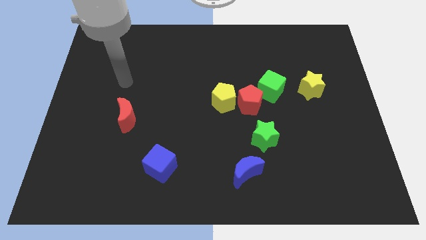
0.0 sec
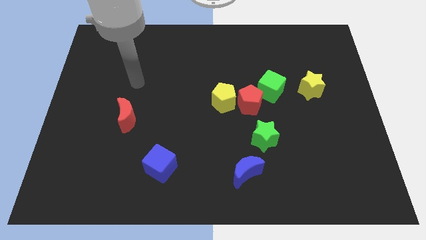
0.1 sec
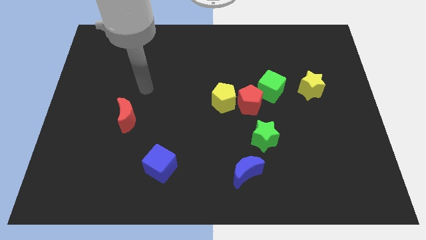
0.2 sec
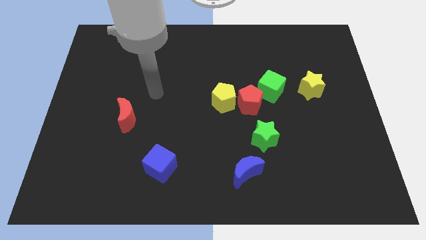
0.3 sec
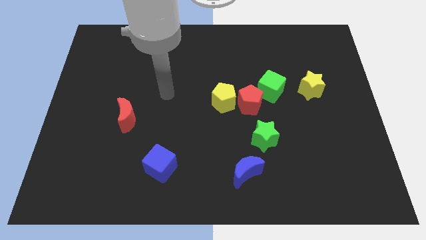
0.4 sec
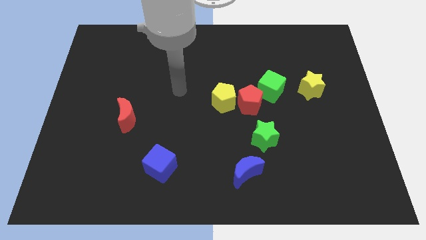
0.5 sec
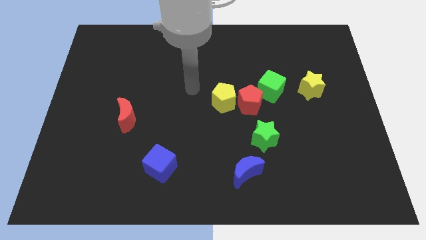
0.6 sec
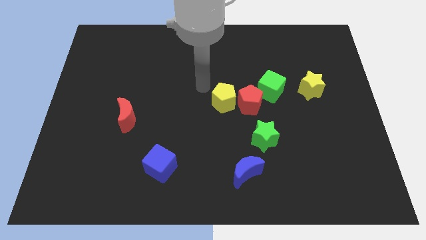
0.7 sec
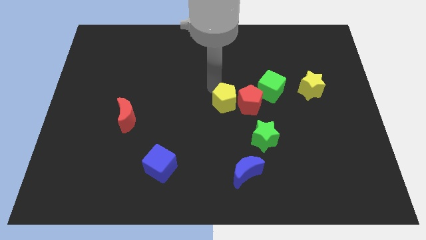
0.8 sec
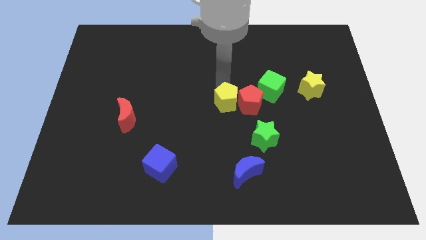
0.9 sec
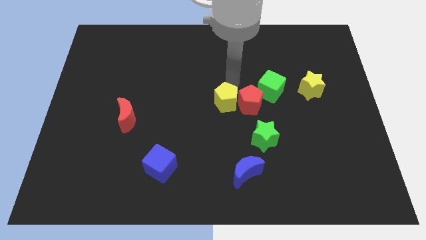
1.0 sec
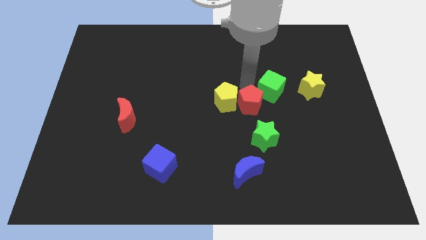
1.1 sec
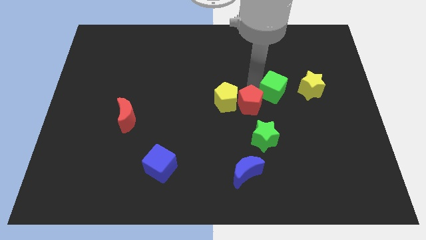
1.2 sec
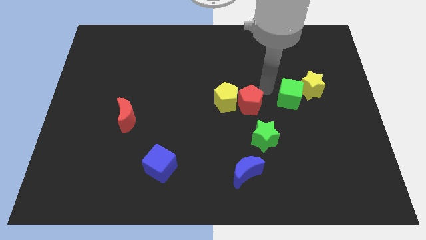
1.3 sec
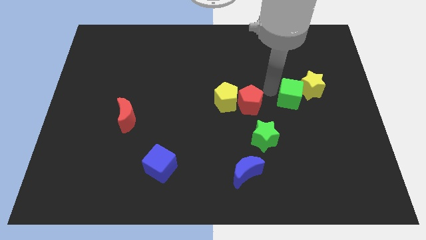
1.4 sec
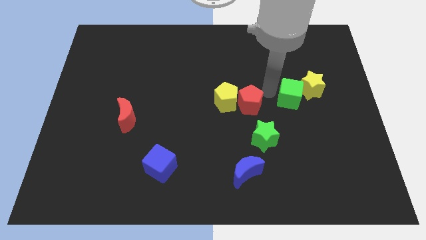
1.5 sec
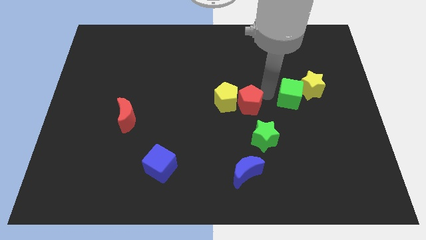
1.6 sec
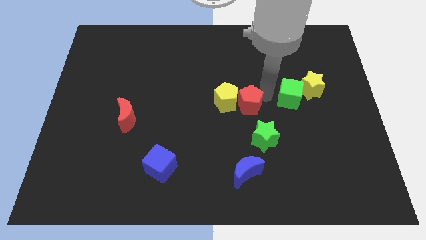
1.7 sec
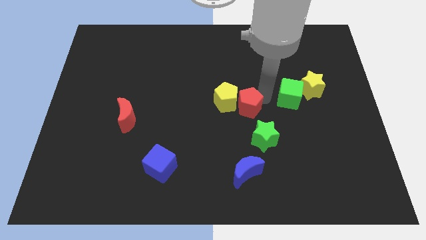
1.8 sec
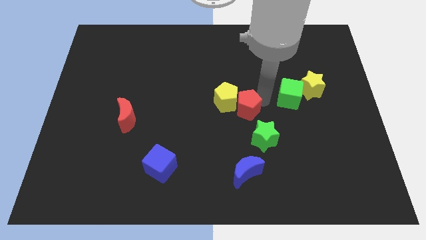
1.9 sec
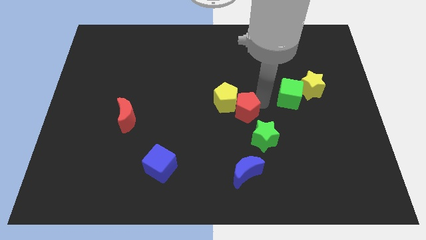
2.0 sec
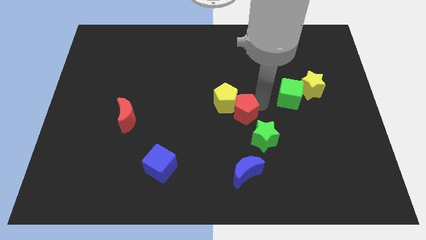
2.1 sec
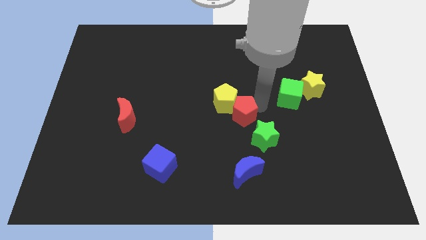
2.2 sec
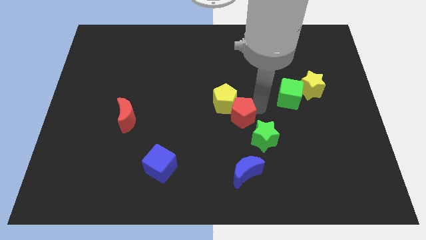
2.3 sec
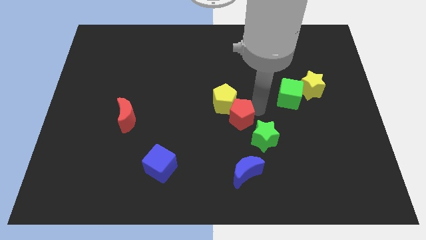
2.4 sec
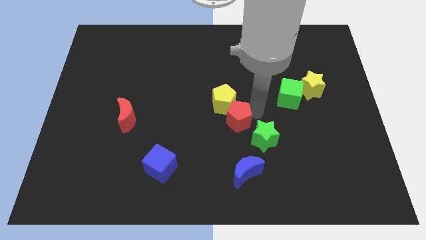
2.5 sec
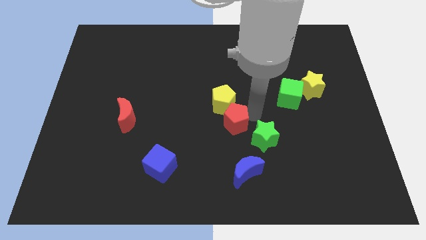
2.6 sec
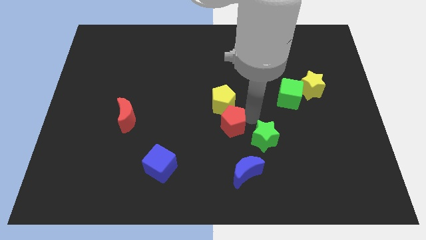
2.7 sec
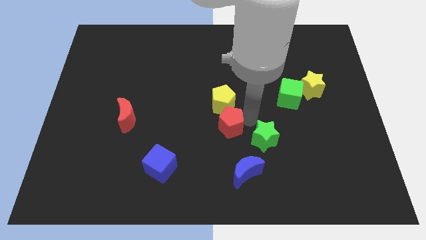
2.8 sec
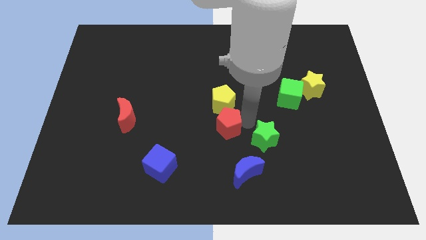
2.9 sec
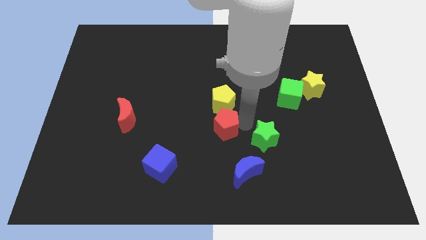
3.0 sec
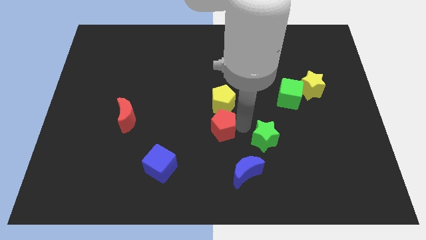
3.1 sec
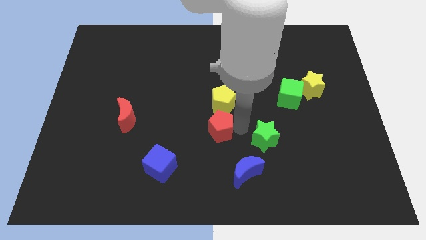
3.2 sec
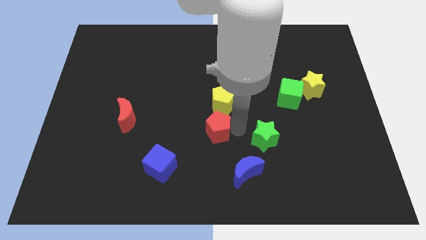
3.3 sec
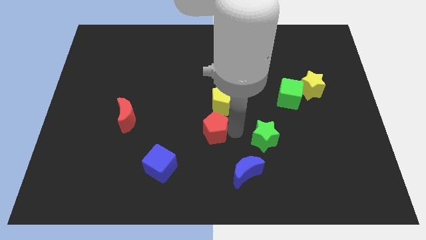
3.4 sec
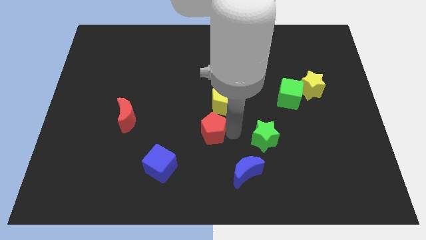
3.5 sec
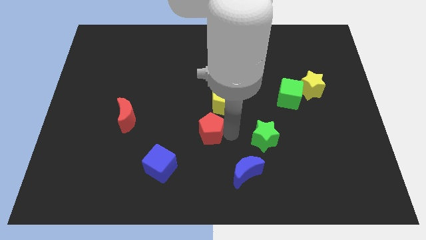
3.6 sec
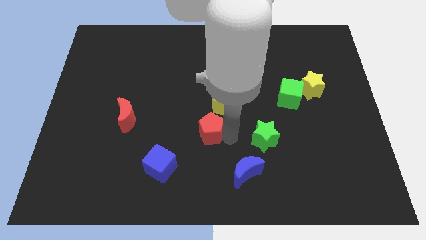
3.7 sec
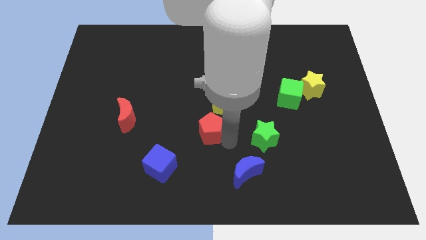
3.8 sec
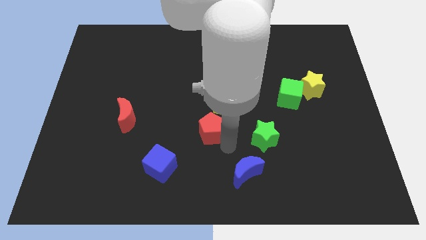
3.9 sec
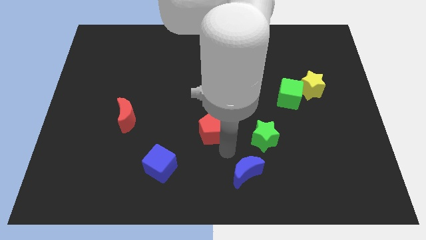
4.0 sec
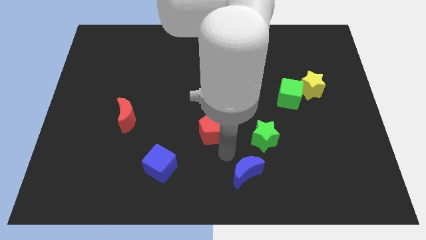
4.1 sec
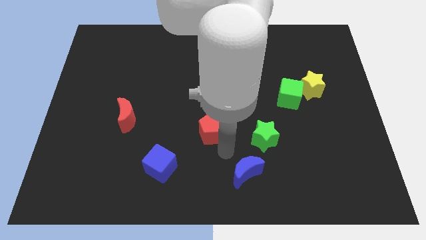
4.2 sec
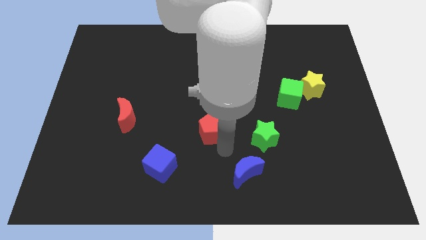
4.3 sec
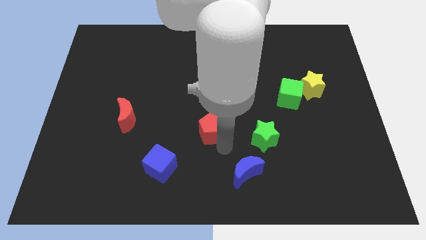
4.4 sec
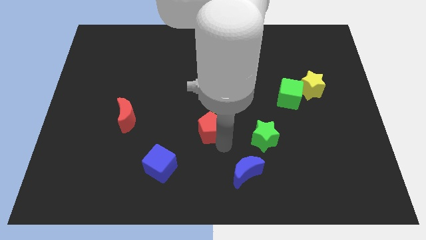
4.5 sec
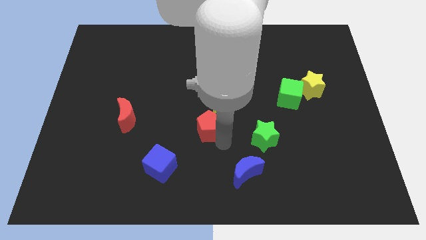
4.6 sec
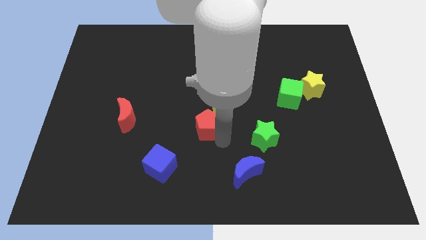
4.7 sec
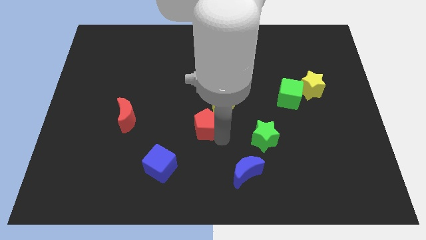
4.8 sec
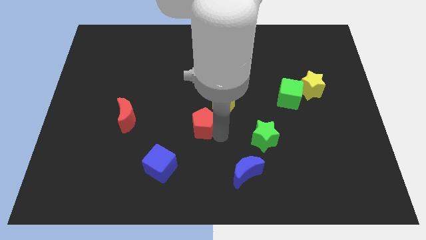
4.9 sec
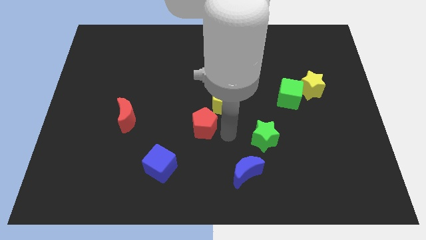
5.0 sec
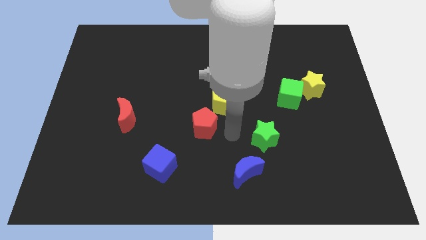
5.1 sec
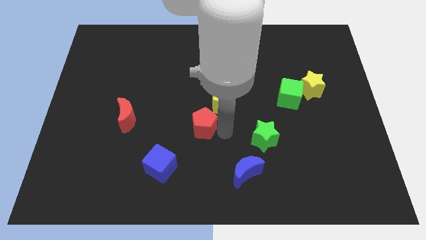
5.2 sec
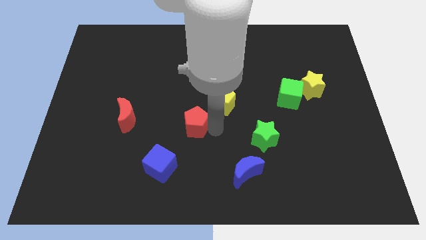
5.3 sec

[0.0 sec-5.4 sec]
put the red pentagon right of the red moon

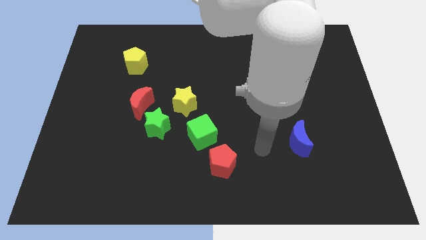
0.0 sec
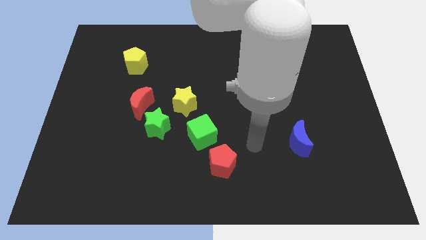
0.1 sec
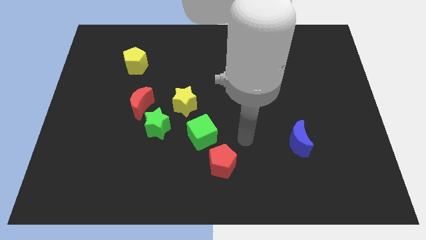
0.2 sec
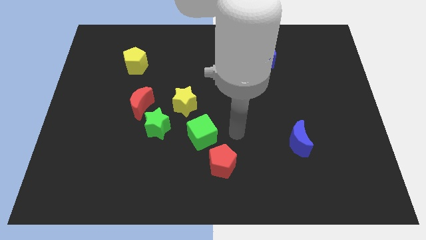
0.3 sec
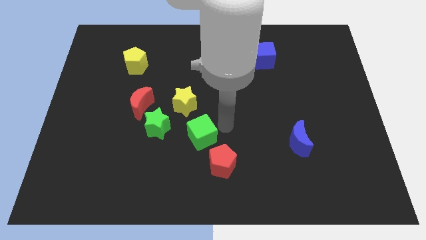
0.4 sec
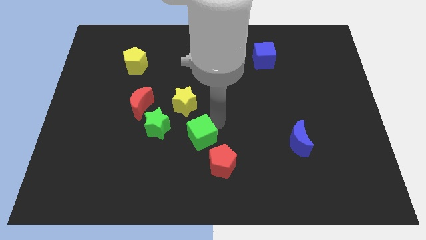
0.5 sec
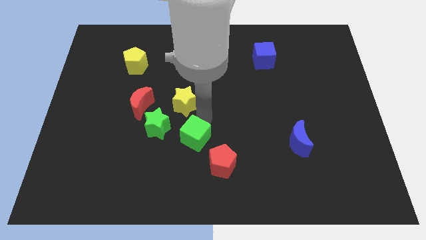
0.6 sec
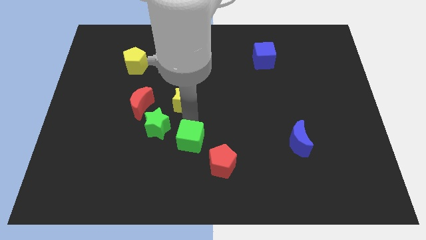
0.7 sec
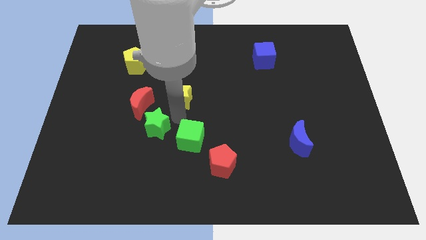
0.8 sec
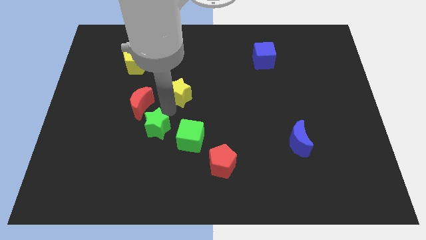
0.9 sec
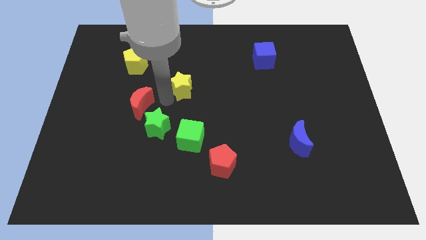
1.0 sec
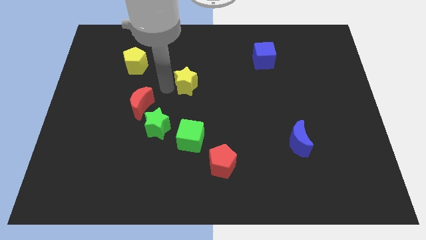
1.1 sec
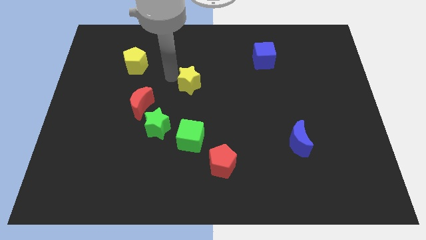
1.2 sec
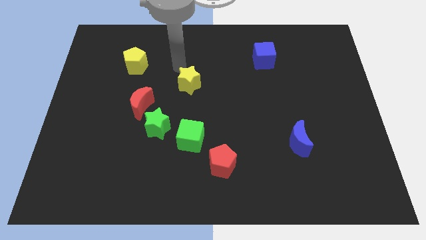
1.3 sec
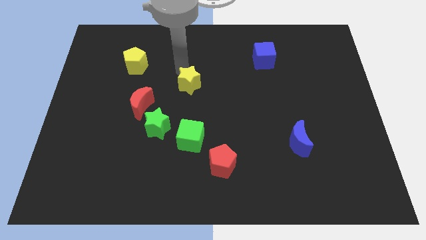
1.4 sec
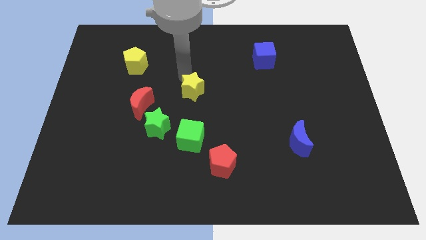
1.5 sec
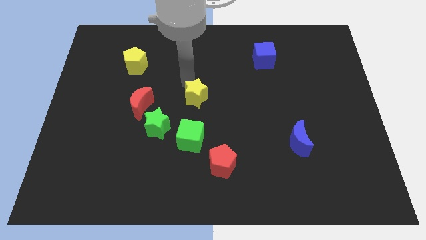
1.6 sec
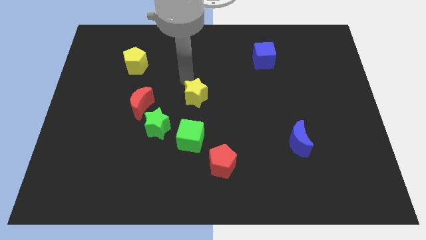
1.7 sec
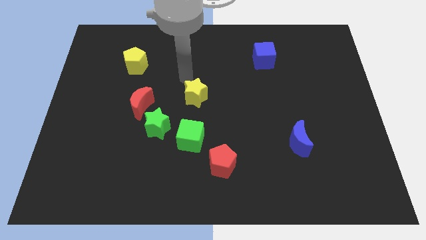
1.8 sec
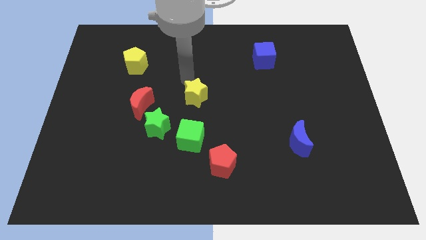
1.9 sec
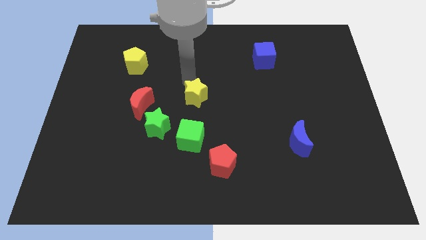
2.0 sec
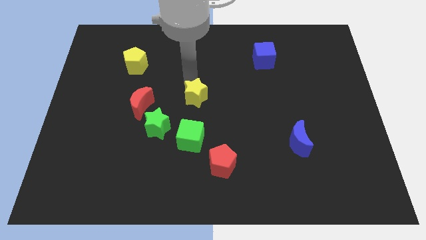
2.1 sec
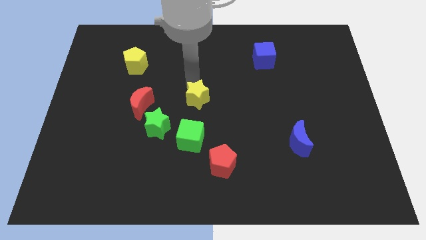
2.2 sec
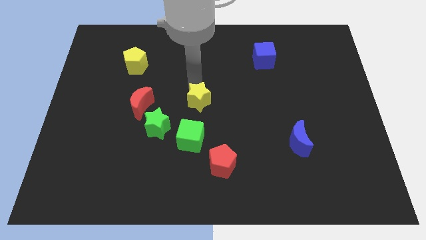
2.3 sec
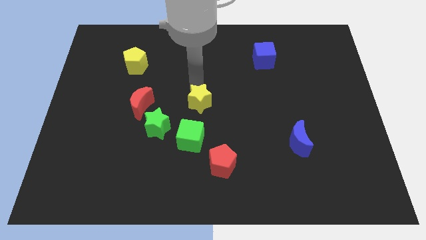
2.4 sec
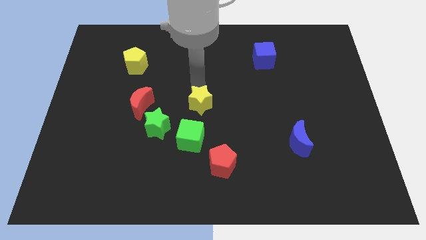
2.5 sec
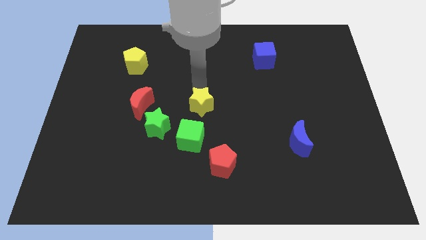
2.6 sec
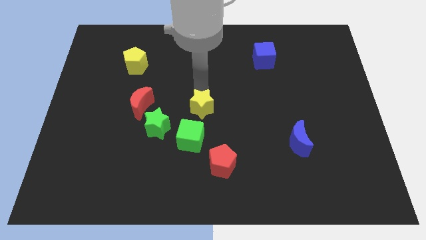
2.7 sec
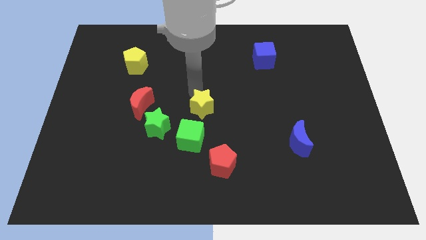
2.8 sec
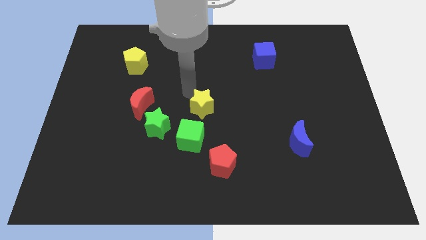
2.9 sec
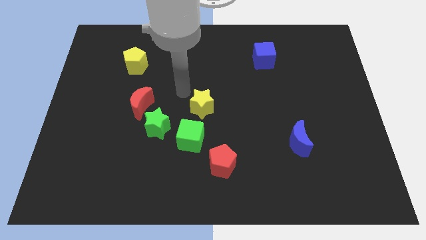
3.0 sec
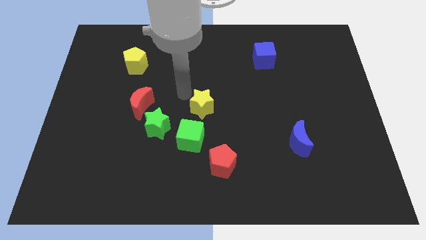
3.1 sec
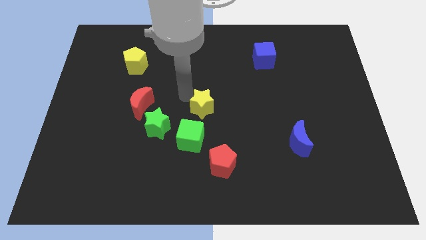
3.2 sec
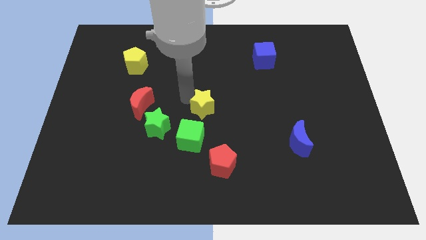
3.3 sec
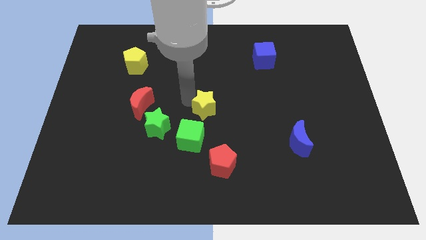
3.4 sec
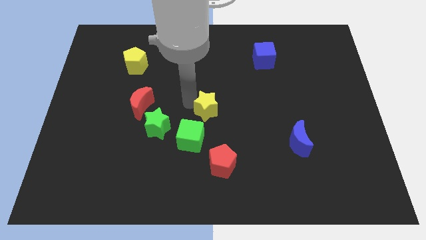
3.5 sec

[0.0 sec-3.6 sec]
push the yellow star above the red pentagon
